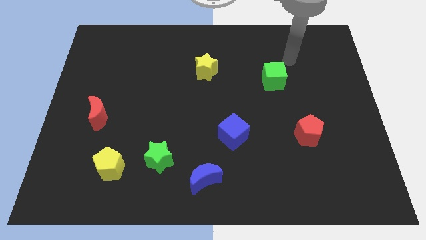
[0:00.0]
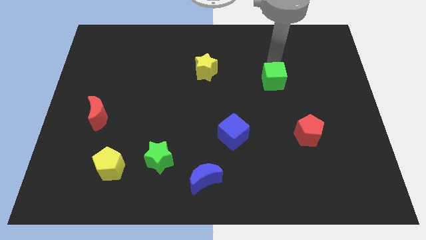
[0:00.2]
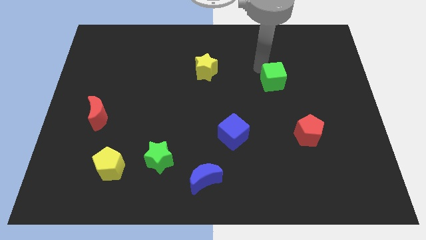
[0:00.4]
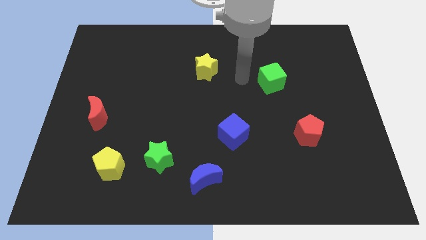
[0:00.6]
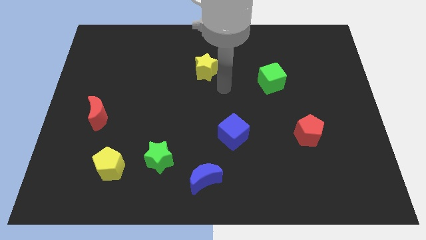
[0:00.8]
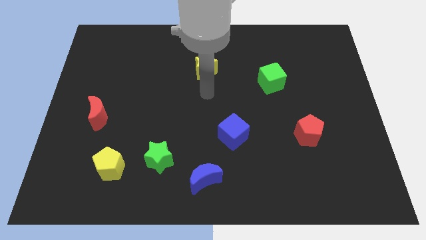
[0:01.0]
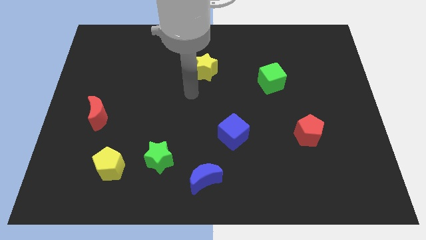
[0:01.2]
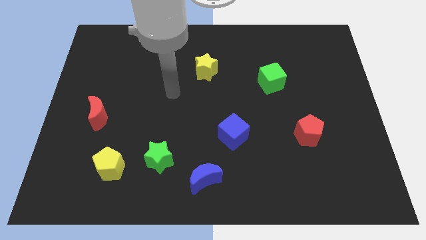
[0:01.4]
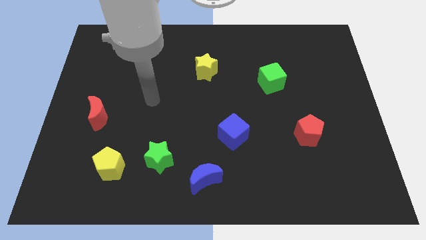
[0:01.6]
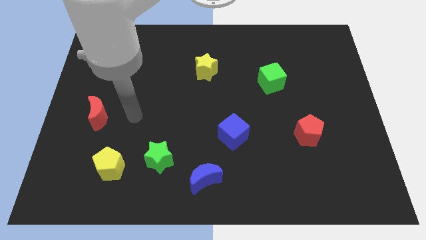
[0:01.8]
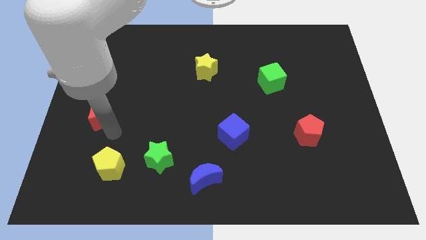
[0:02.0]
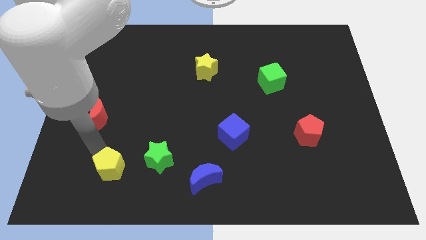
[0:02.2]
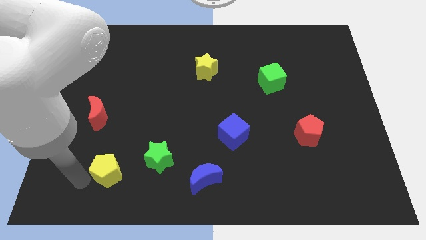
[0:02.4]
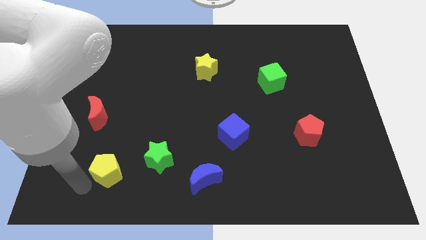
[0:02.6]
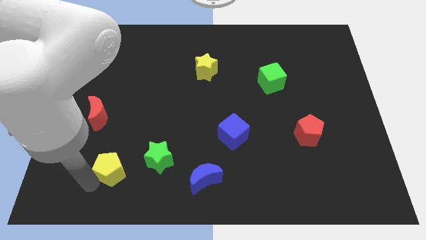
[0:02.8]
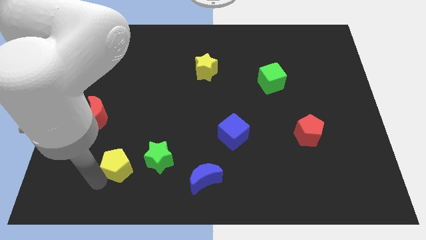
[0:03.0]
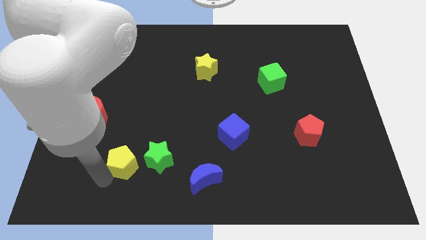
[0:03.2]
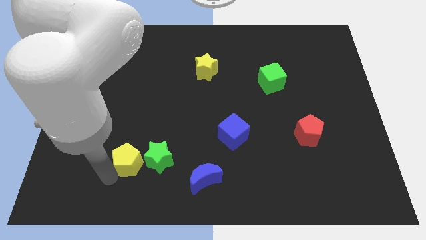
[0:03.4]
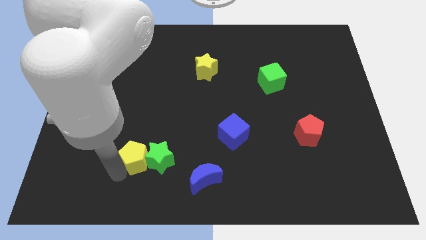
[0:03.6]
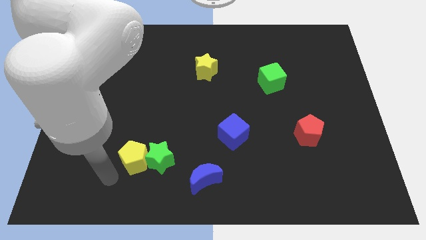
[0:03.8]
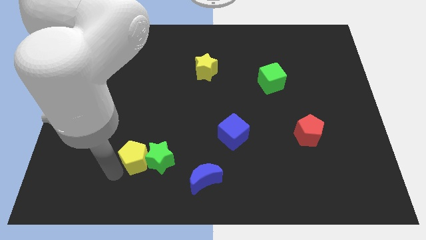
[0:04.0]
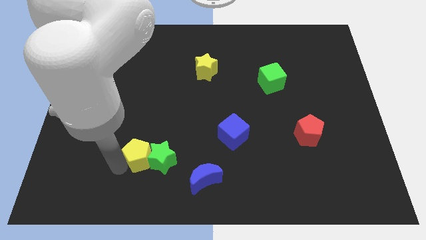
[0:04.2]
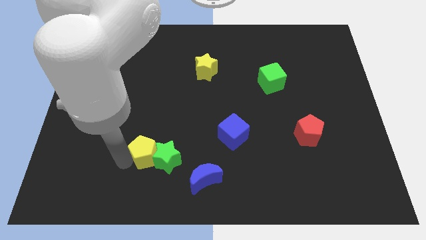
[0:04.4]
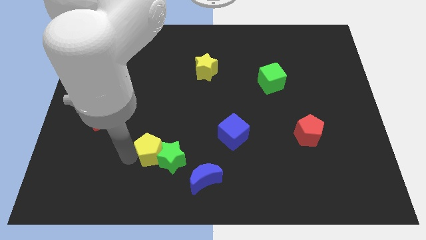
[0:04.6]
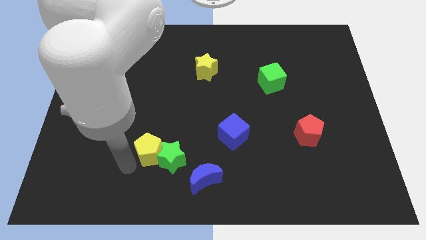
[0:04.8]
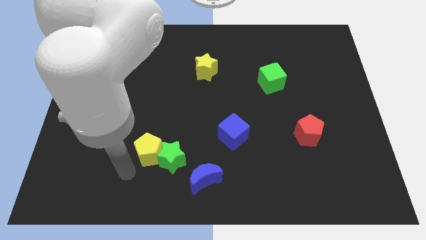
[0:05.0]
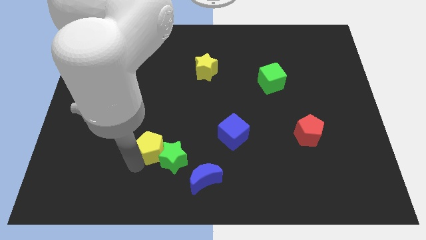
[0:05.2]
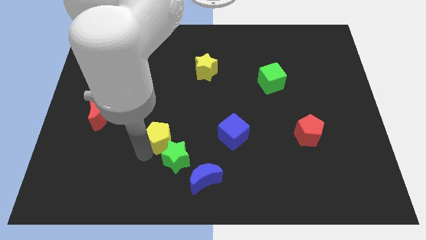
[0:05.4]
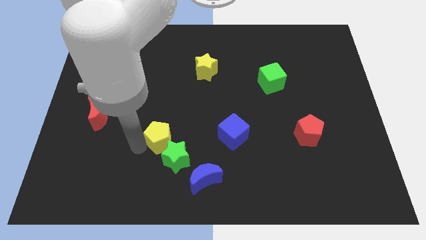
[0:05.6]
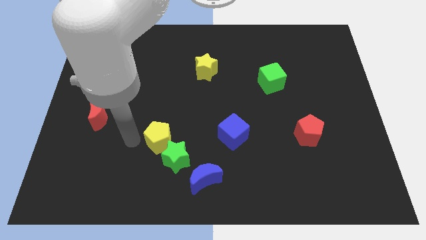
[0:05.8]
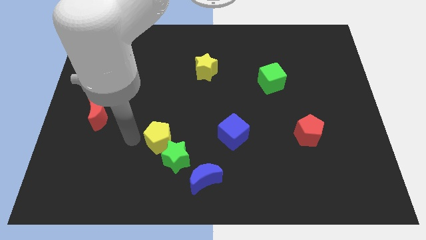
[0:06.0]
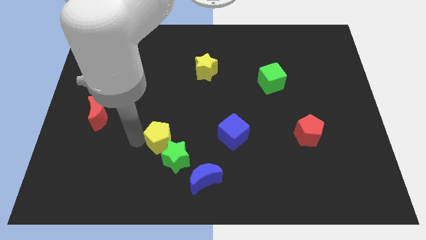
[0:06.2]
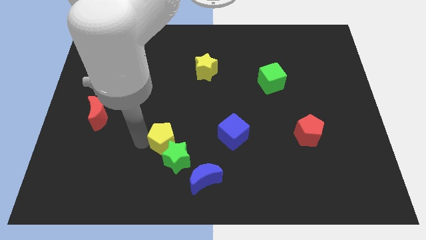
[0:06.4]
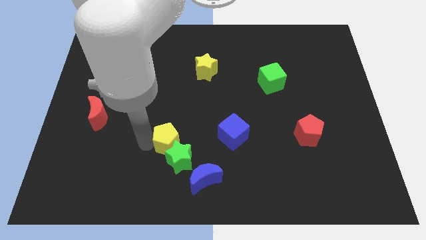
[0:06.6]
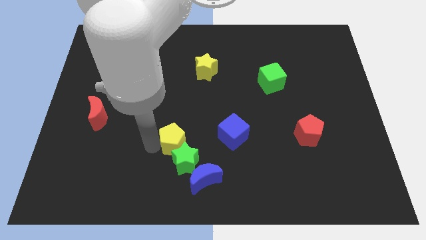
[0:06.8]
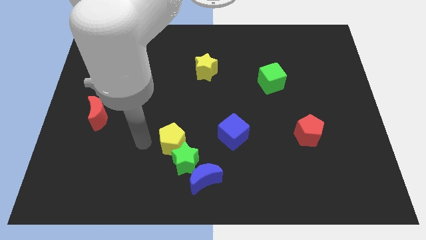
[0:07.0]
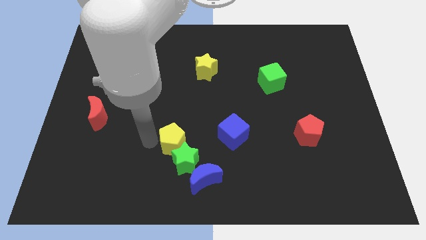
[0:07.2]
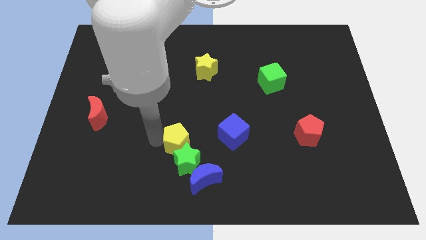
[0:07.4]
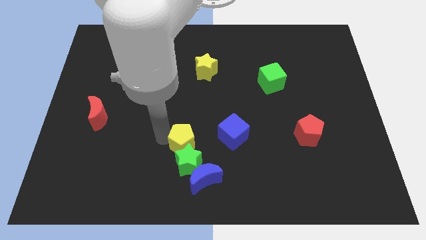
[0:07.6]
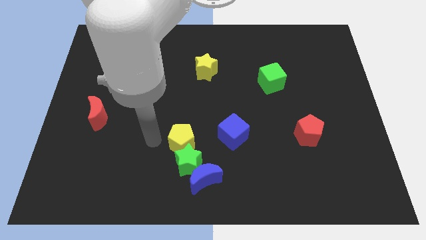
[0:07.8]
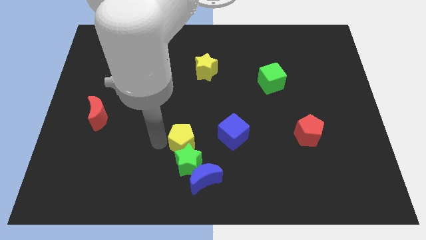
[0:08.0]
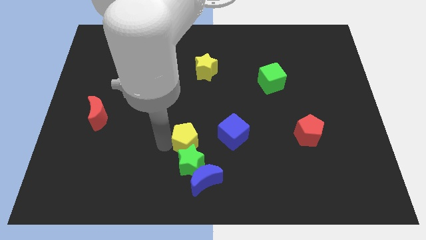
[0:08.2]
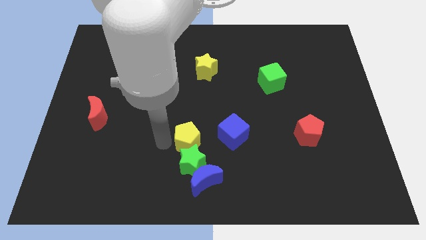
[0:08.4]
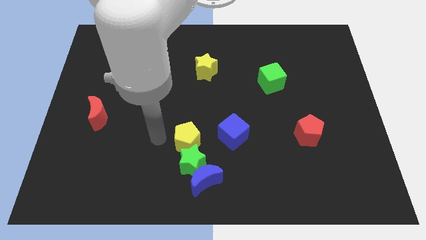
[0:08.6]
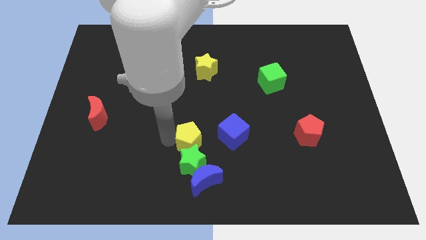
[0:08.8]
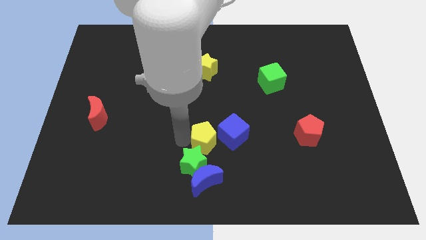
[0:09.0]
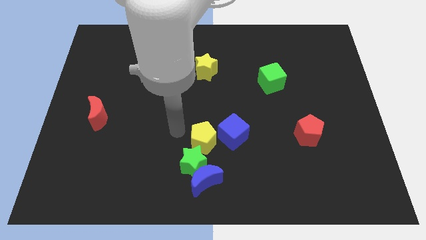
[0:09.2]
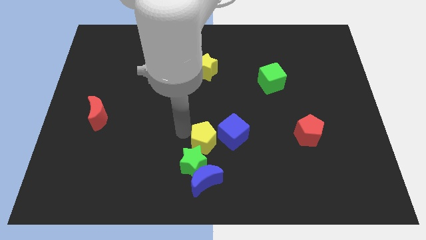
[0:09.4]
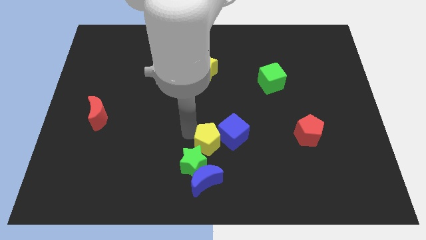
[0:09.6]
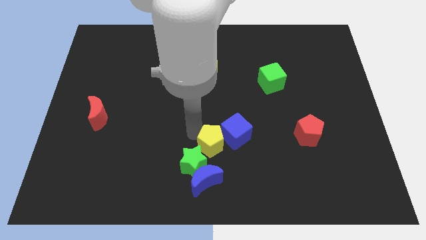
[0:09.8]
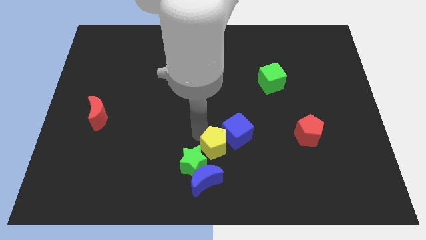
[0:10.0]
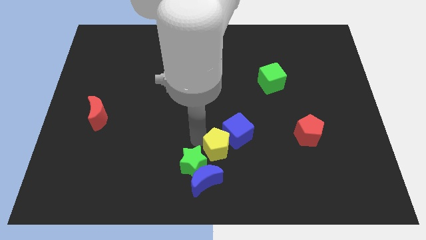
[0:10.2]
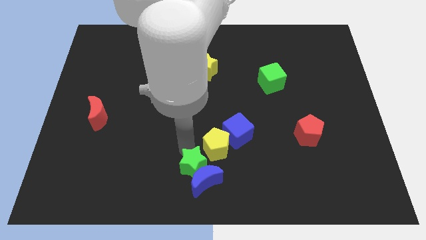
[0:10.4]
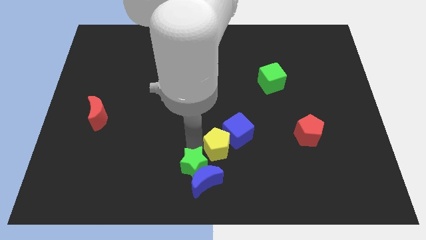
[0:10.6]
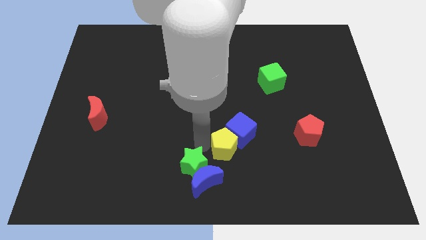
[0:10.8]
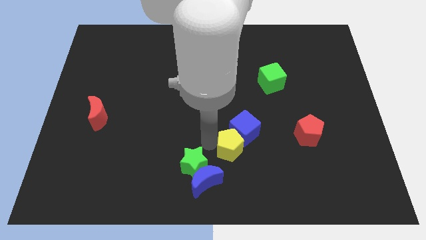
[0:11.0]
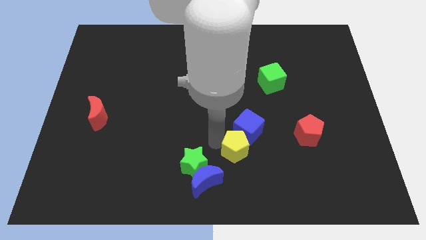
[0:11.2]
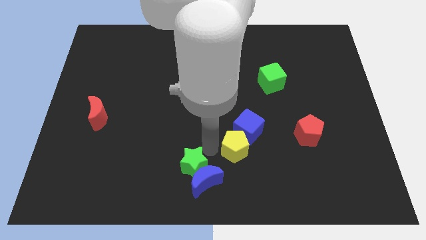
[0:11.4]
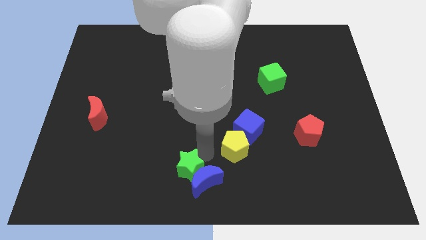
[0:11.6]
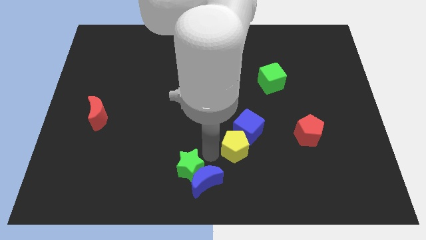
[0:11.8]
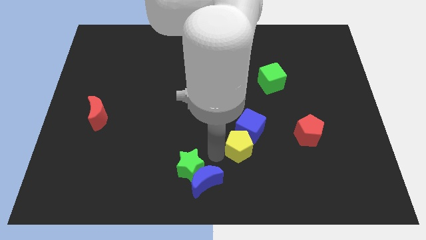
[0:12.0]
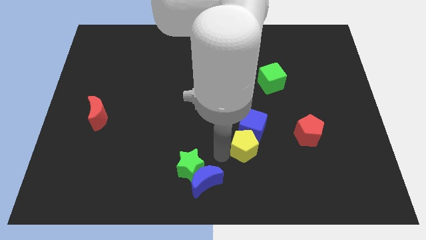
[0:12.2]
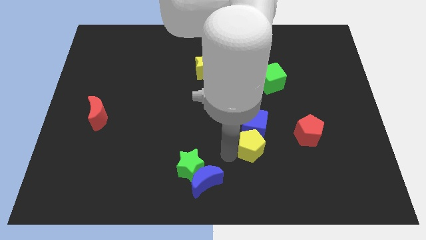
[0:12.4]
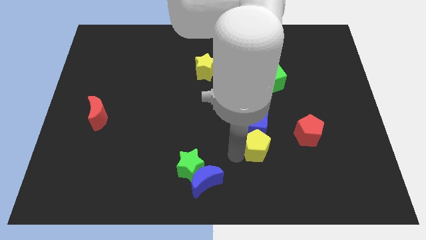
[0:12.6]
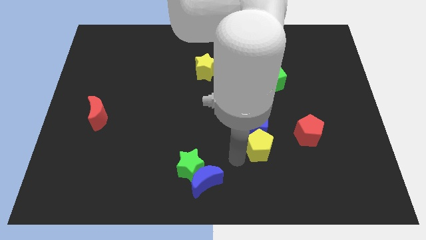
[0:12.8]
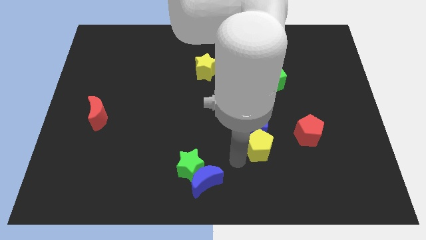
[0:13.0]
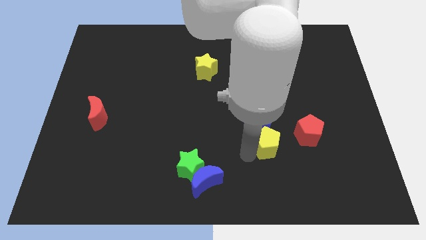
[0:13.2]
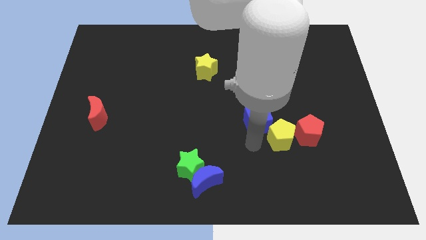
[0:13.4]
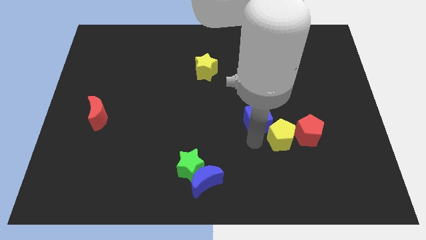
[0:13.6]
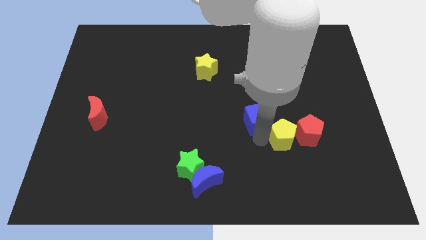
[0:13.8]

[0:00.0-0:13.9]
put the yellow pentagon towards the red pentagon

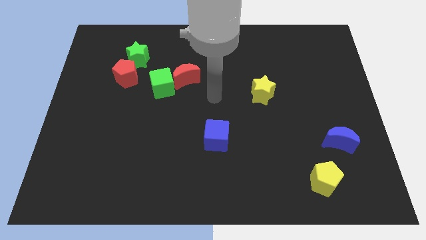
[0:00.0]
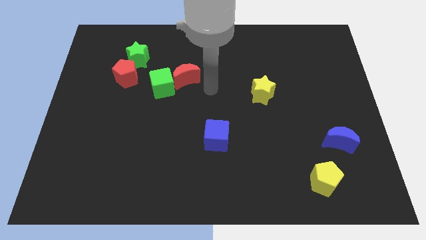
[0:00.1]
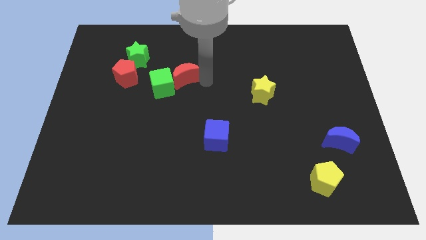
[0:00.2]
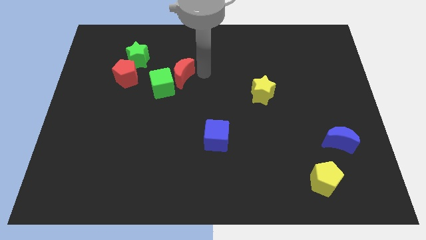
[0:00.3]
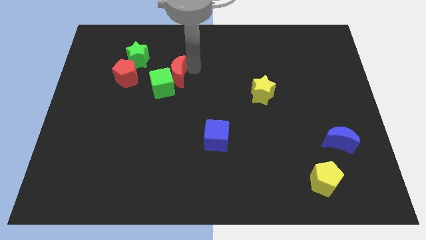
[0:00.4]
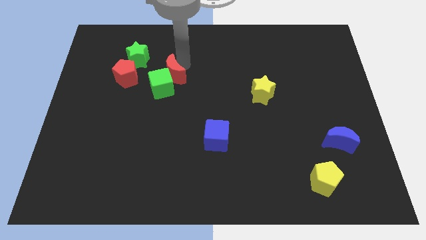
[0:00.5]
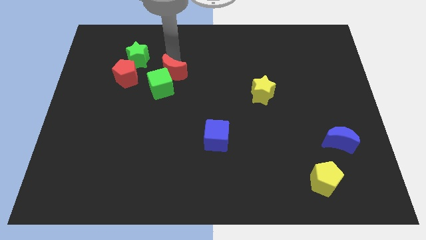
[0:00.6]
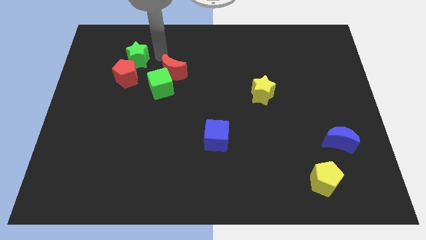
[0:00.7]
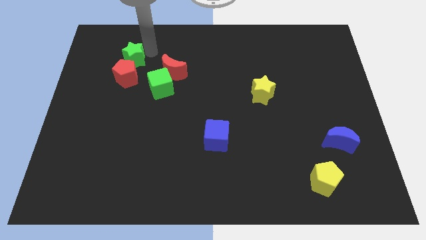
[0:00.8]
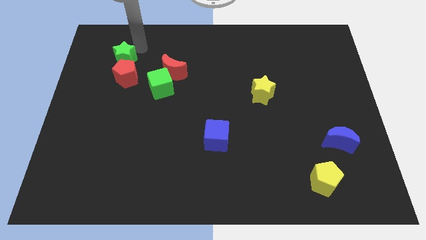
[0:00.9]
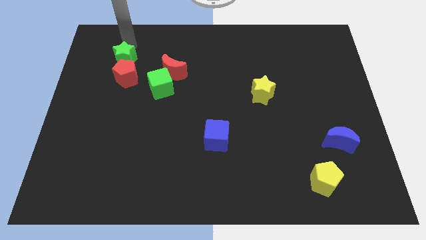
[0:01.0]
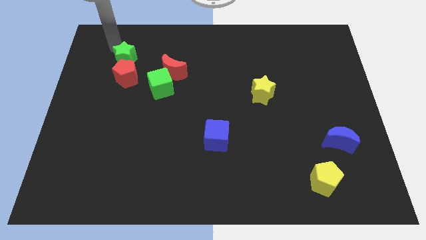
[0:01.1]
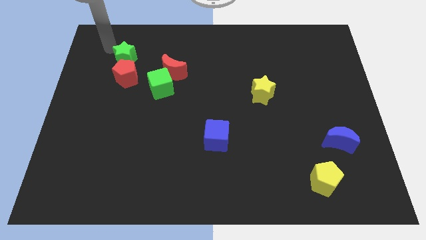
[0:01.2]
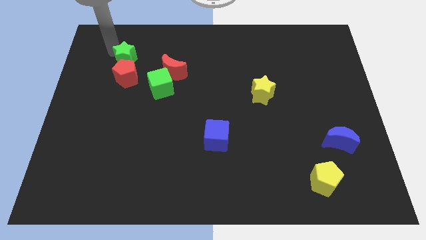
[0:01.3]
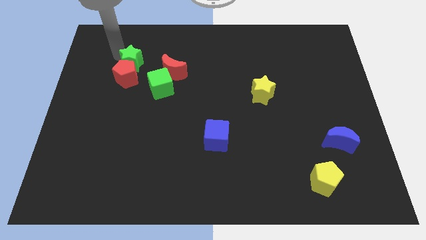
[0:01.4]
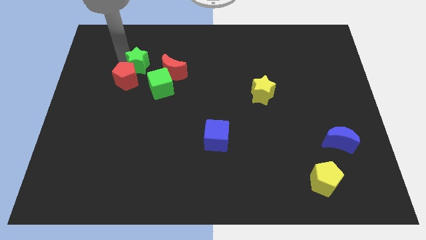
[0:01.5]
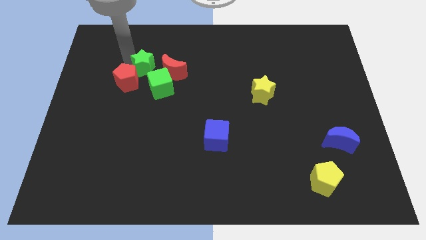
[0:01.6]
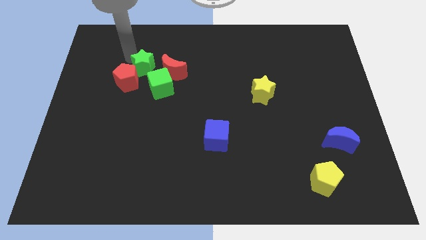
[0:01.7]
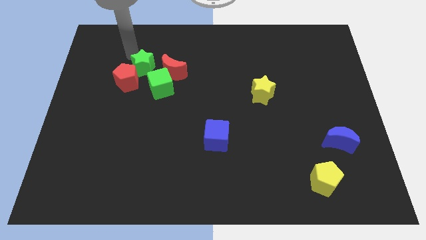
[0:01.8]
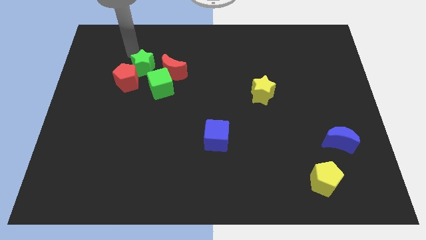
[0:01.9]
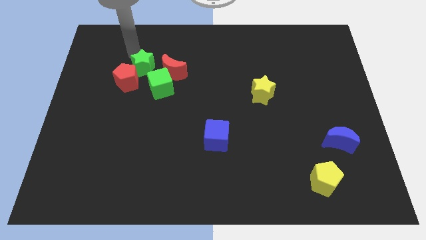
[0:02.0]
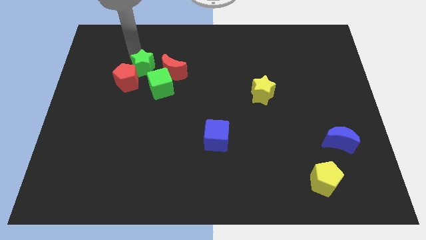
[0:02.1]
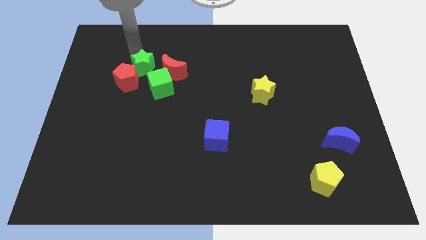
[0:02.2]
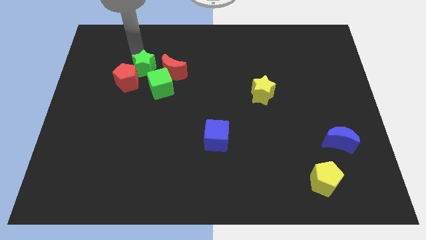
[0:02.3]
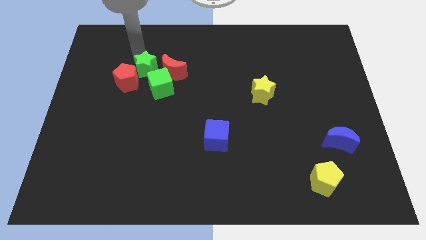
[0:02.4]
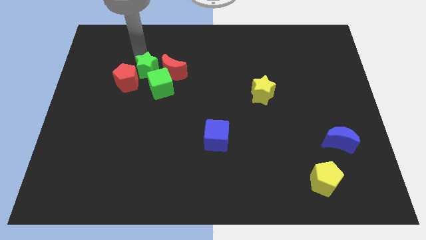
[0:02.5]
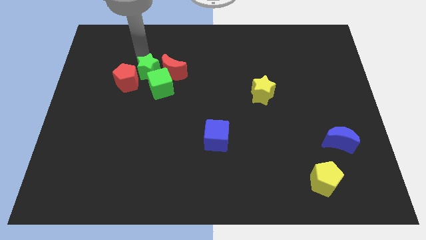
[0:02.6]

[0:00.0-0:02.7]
push the green star to the green cube
